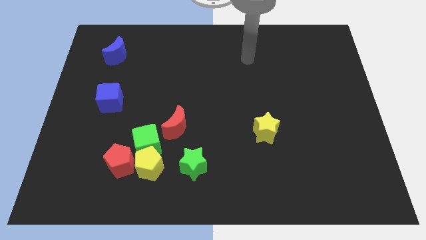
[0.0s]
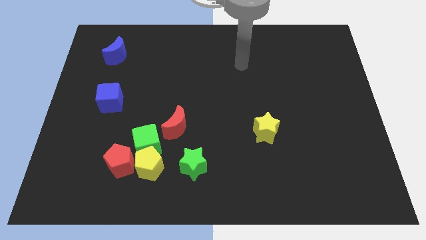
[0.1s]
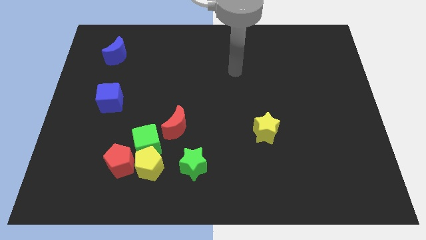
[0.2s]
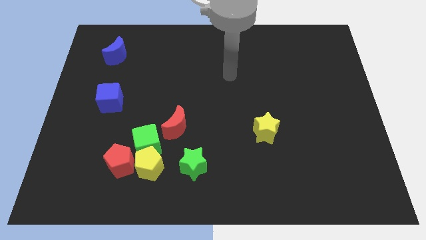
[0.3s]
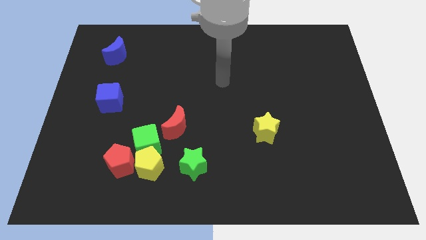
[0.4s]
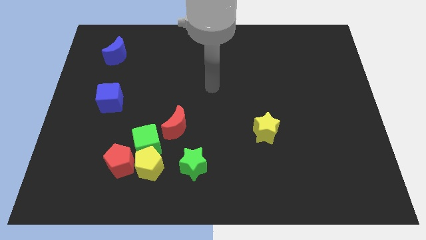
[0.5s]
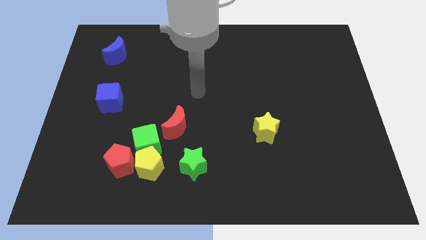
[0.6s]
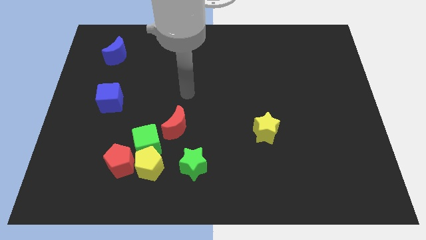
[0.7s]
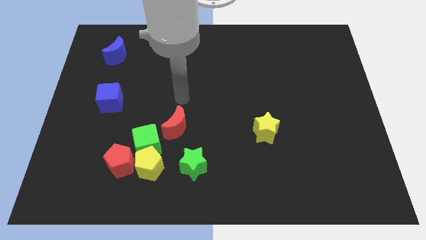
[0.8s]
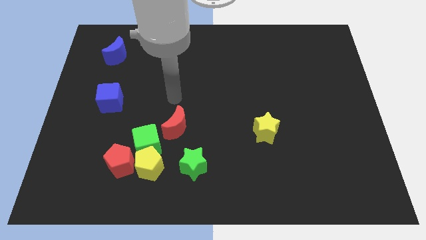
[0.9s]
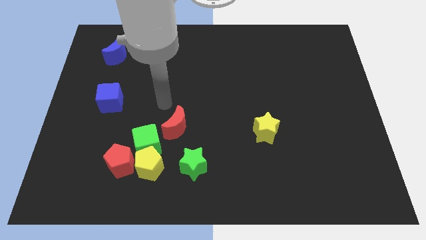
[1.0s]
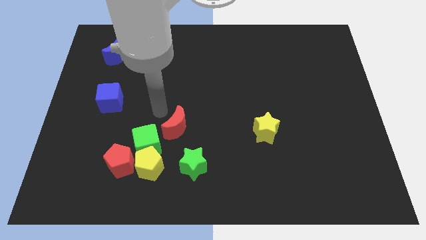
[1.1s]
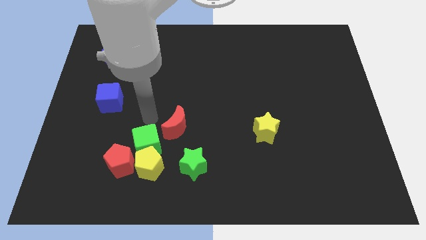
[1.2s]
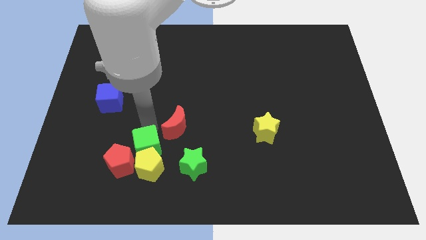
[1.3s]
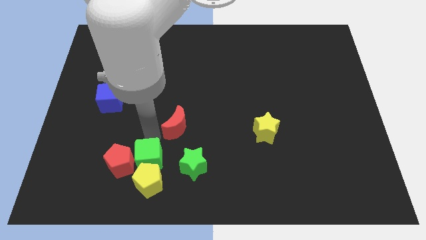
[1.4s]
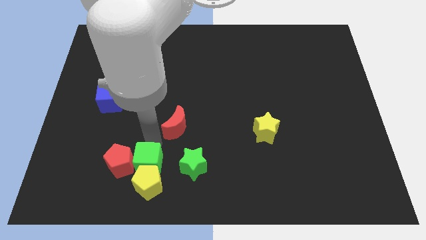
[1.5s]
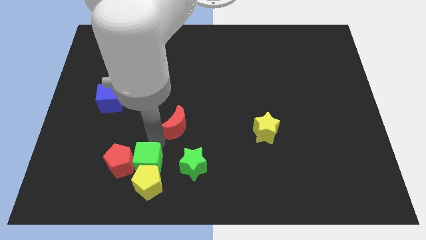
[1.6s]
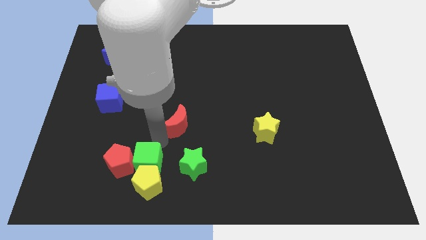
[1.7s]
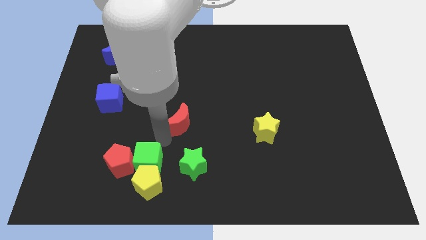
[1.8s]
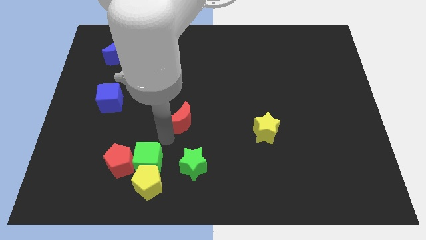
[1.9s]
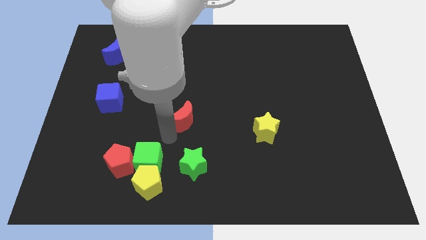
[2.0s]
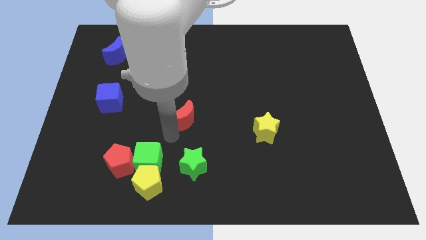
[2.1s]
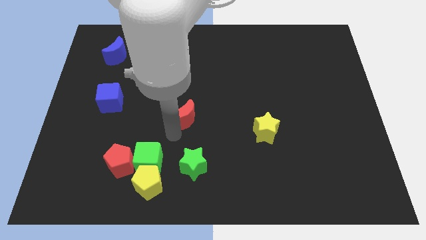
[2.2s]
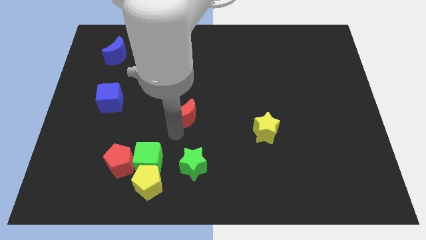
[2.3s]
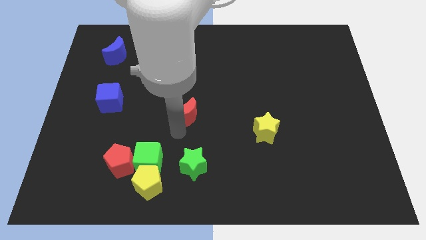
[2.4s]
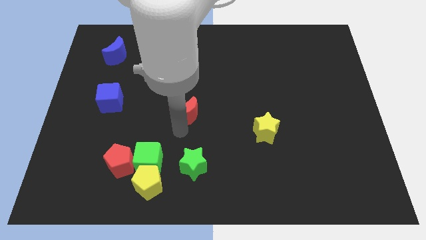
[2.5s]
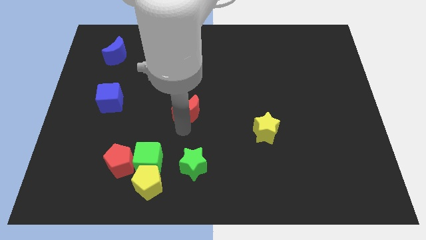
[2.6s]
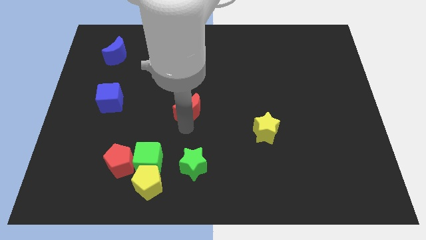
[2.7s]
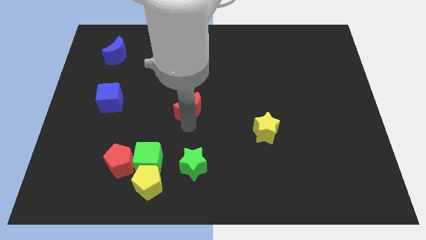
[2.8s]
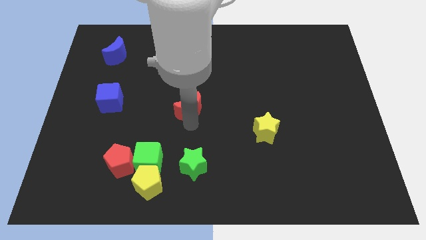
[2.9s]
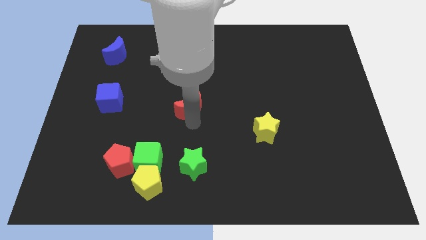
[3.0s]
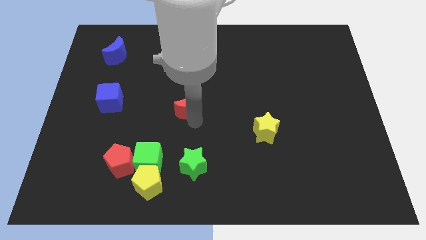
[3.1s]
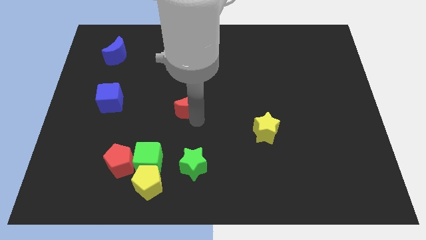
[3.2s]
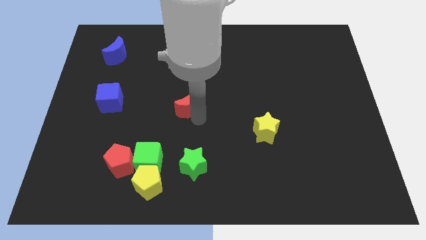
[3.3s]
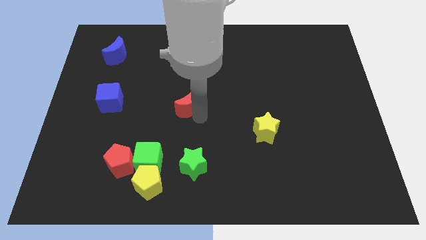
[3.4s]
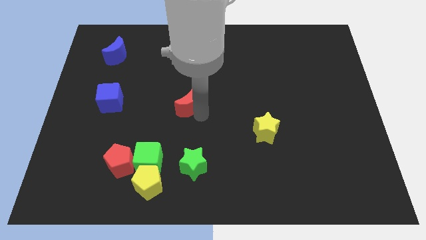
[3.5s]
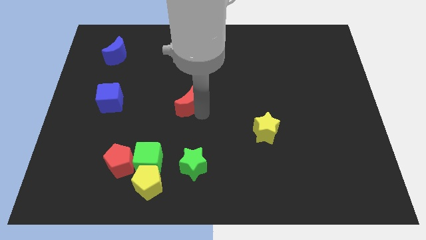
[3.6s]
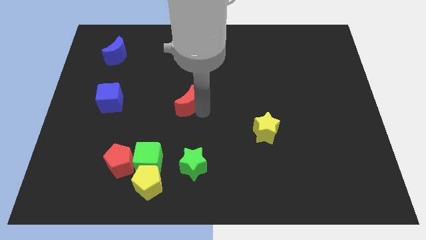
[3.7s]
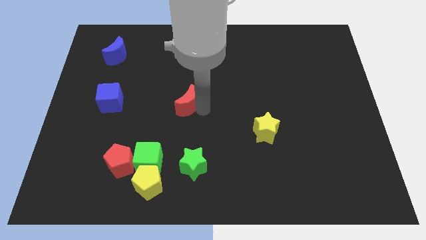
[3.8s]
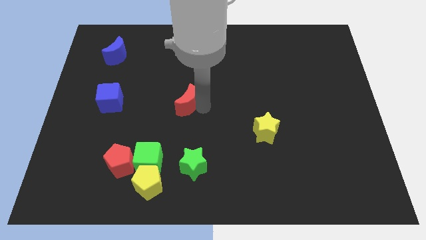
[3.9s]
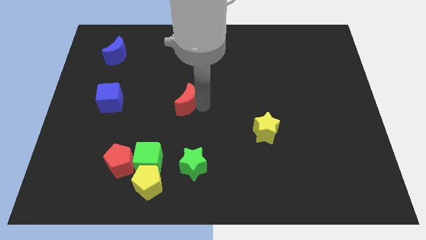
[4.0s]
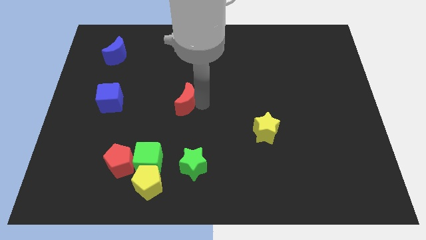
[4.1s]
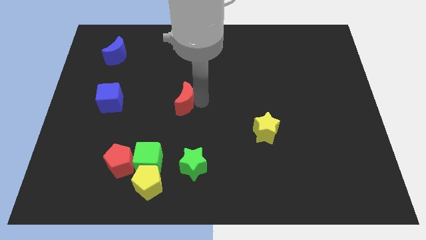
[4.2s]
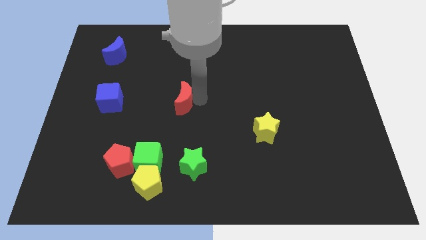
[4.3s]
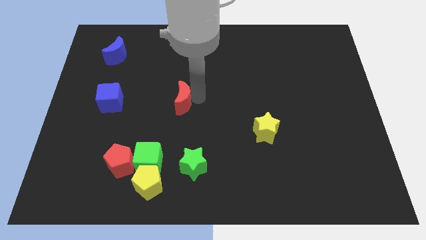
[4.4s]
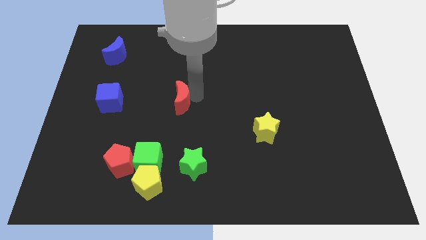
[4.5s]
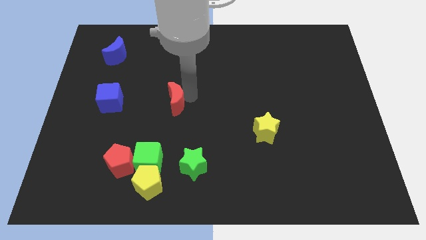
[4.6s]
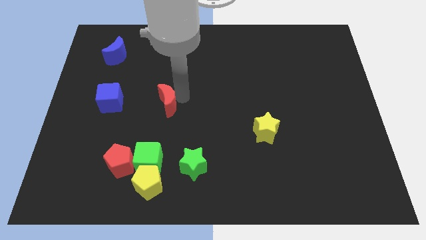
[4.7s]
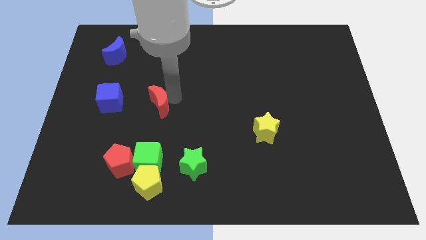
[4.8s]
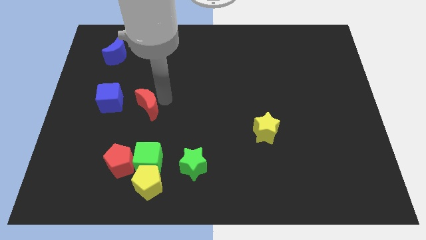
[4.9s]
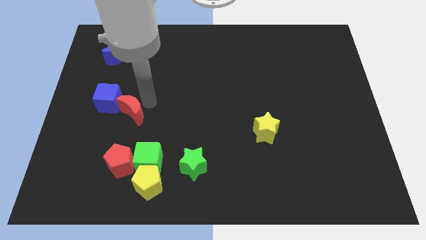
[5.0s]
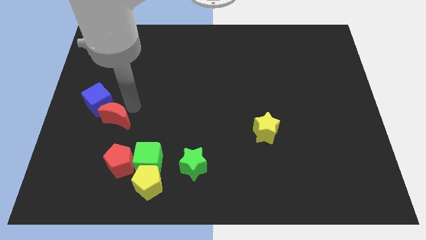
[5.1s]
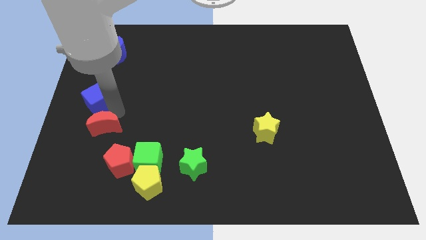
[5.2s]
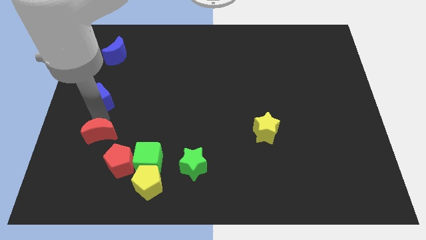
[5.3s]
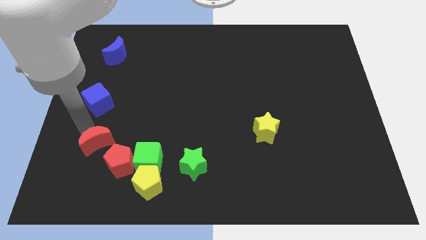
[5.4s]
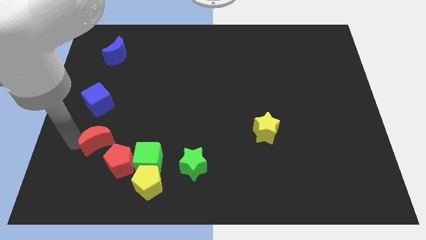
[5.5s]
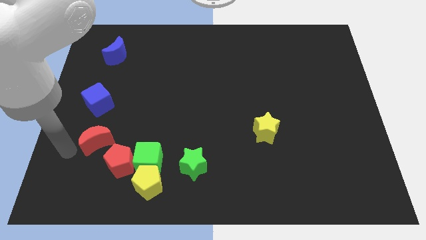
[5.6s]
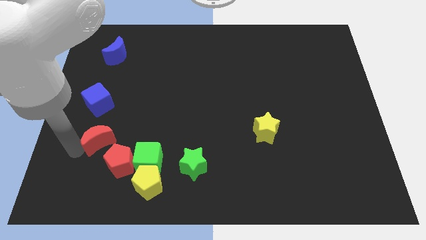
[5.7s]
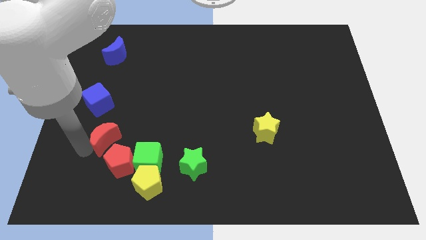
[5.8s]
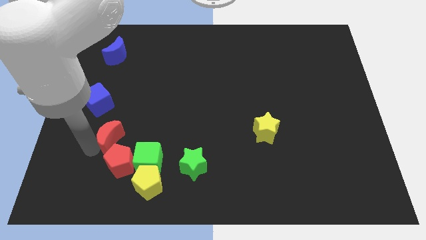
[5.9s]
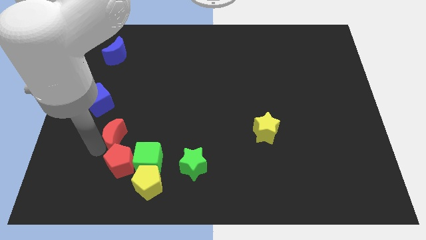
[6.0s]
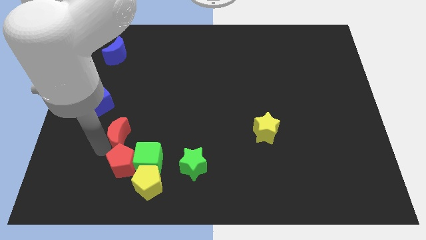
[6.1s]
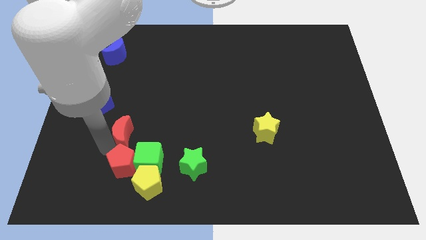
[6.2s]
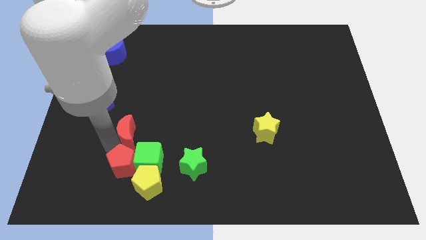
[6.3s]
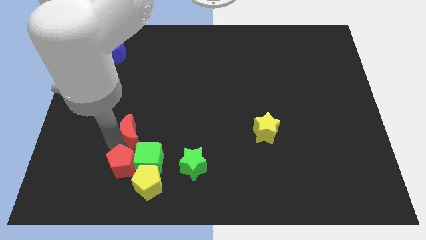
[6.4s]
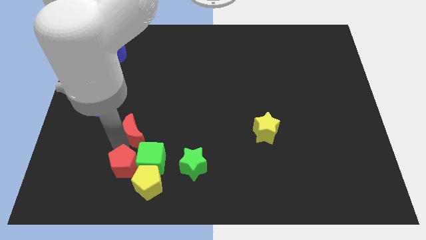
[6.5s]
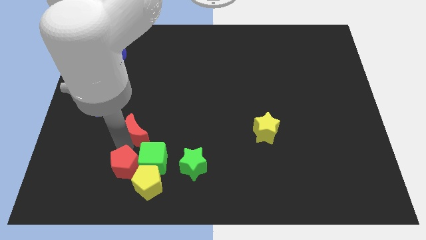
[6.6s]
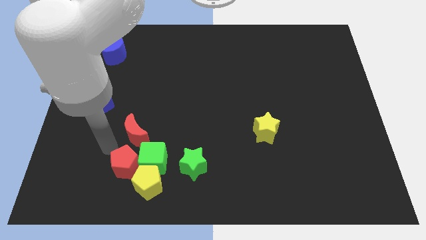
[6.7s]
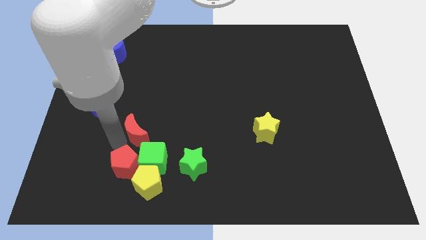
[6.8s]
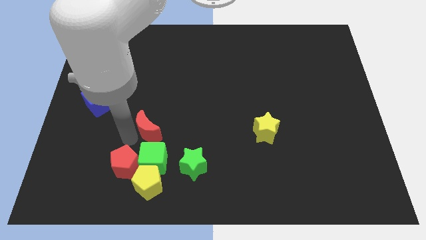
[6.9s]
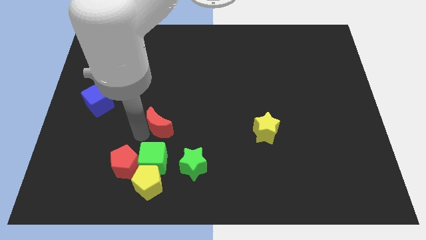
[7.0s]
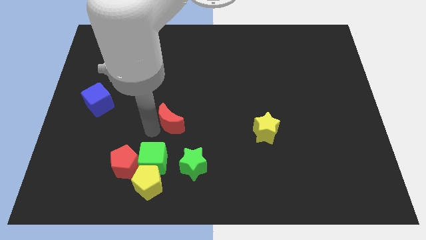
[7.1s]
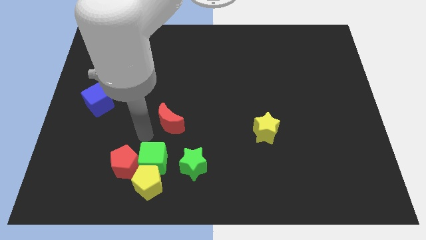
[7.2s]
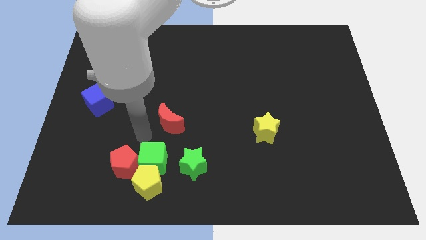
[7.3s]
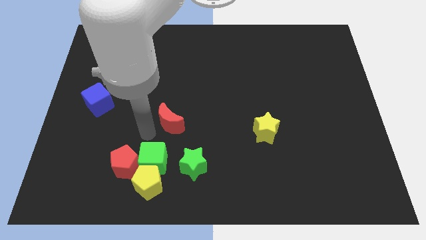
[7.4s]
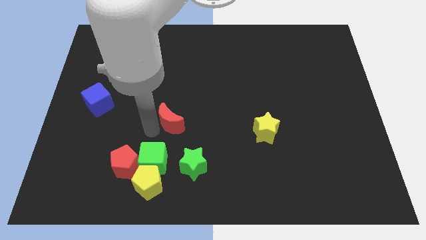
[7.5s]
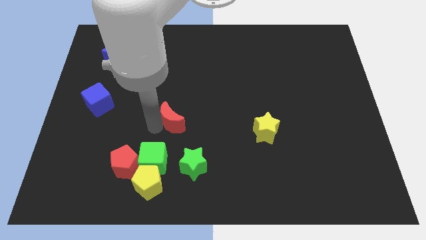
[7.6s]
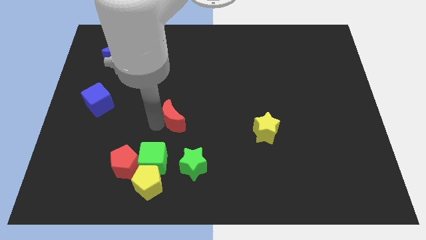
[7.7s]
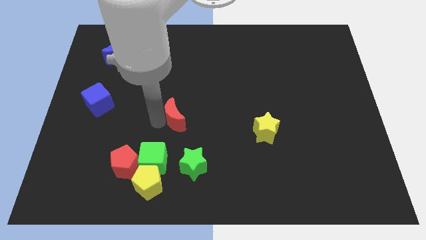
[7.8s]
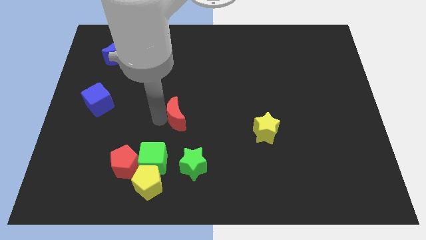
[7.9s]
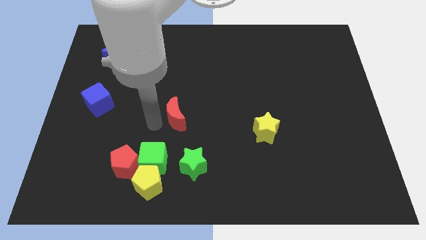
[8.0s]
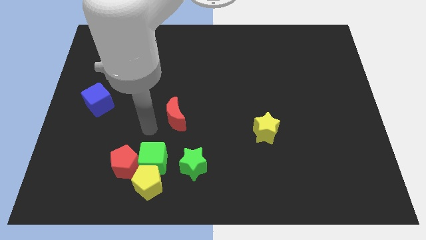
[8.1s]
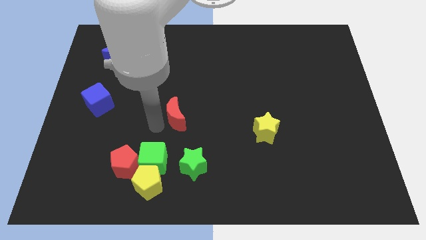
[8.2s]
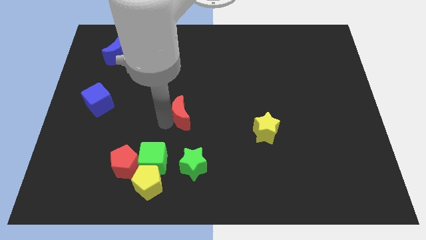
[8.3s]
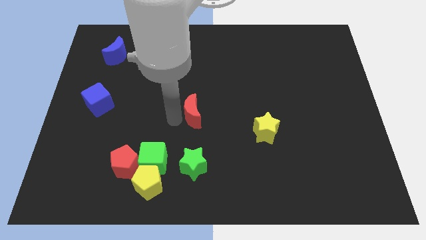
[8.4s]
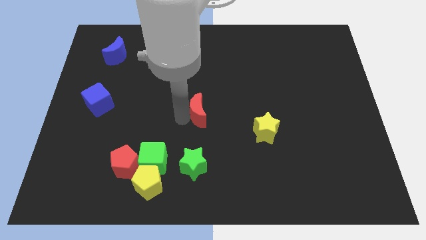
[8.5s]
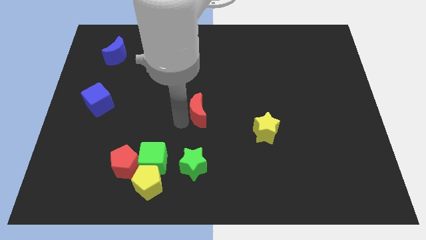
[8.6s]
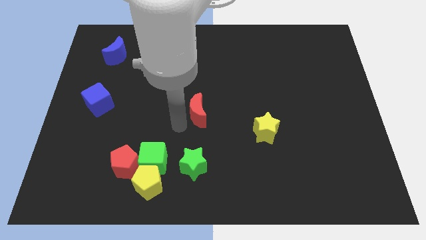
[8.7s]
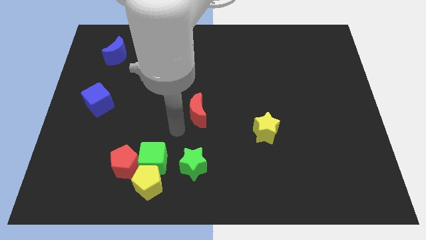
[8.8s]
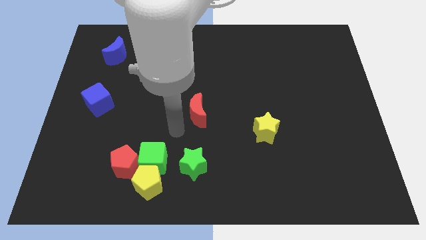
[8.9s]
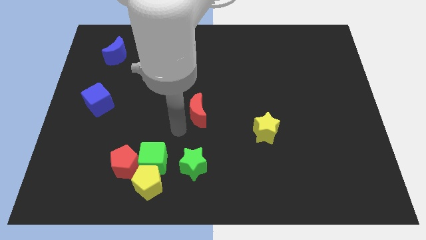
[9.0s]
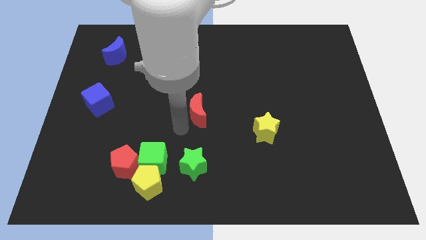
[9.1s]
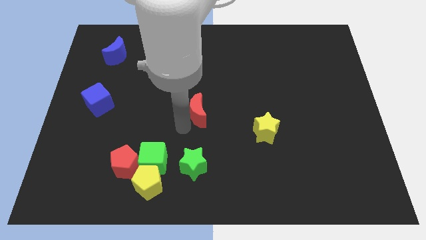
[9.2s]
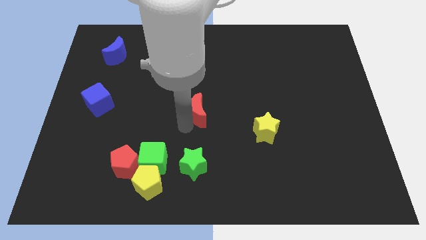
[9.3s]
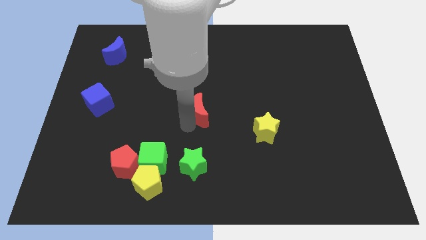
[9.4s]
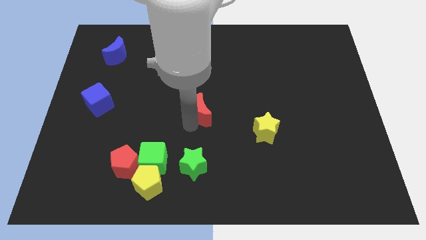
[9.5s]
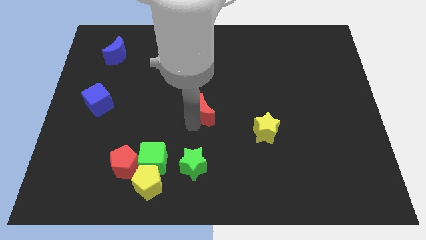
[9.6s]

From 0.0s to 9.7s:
slide the red moon somewhat upwards and right diagonally
